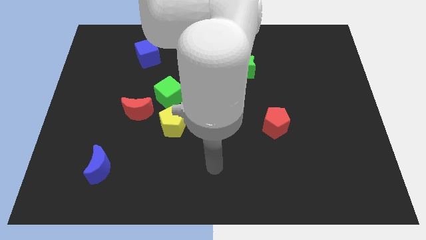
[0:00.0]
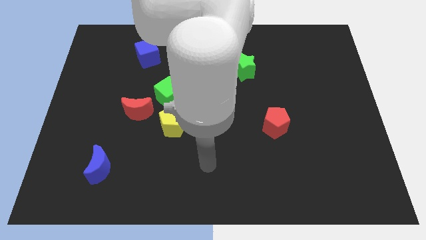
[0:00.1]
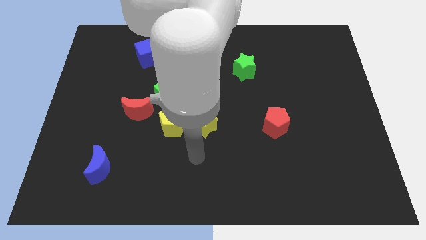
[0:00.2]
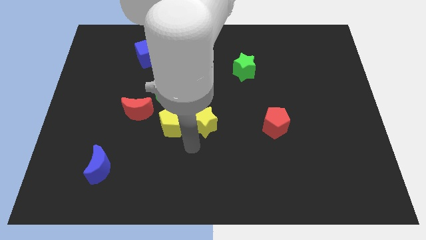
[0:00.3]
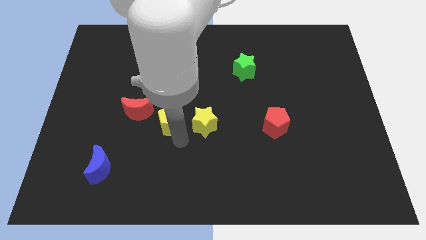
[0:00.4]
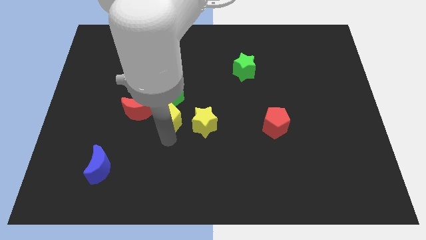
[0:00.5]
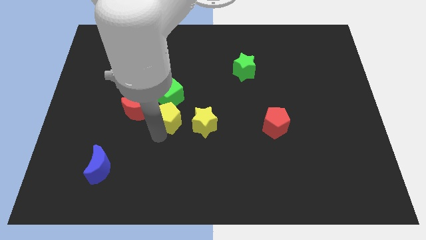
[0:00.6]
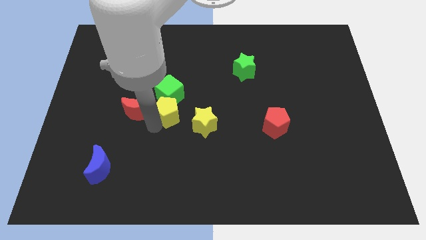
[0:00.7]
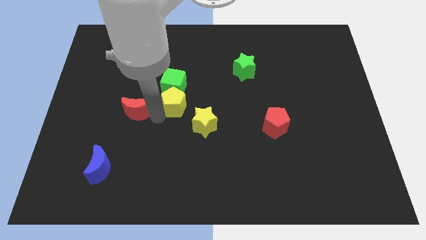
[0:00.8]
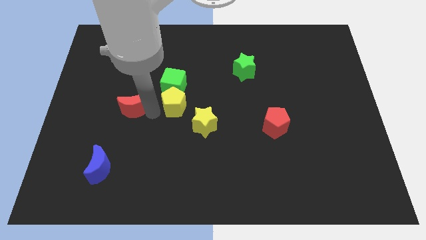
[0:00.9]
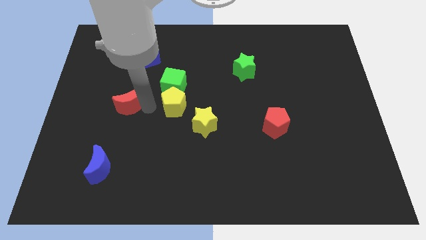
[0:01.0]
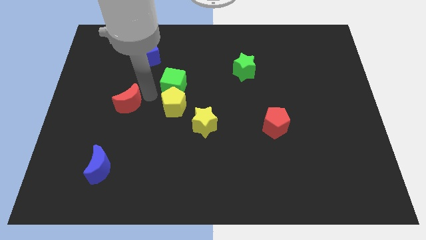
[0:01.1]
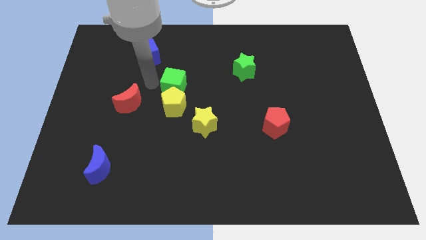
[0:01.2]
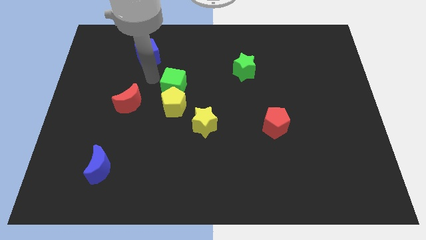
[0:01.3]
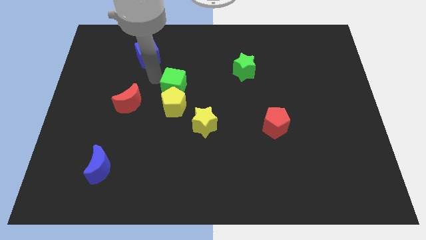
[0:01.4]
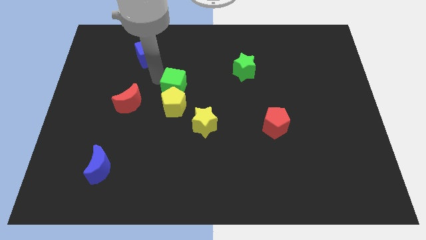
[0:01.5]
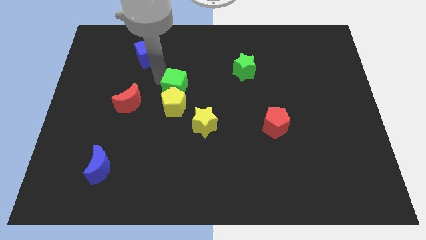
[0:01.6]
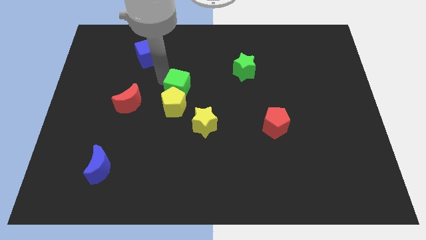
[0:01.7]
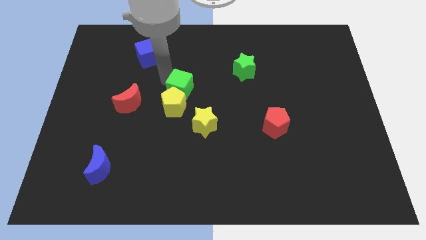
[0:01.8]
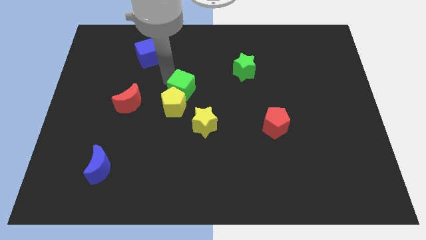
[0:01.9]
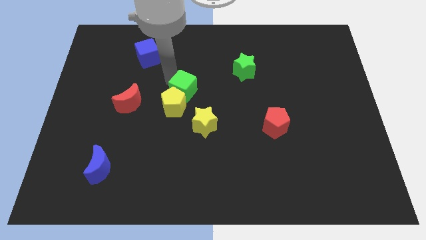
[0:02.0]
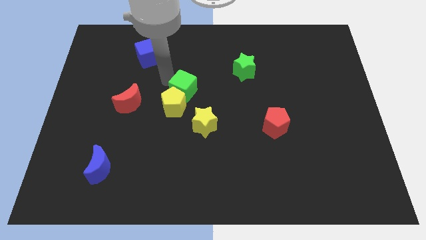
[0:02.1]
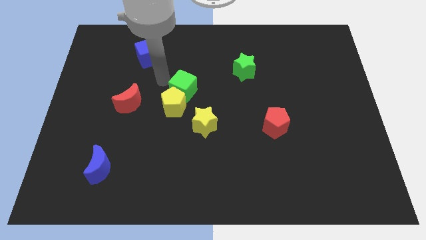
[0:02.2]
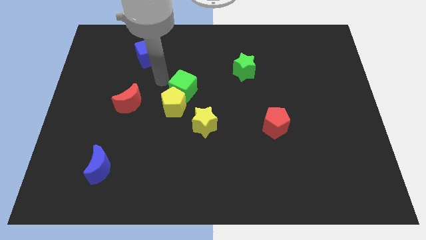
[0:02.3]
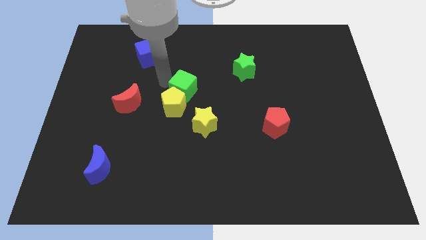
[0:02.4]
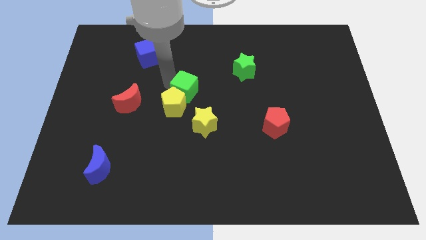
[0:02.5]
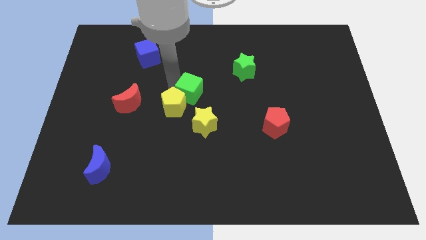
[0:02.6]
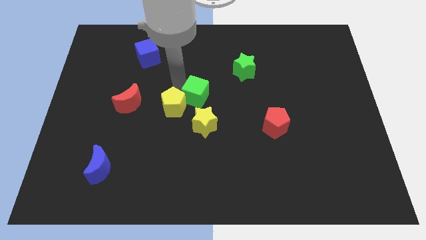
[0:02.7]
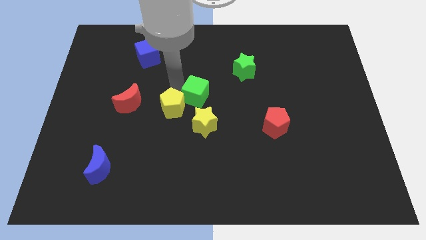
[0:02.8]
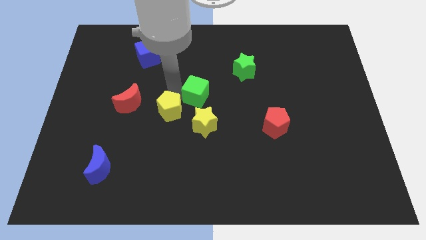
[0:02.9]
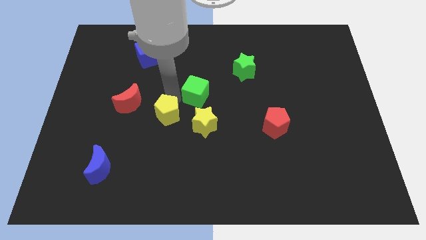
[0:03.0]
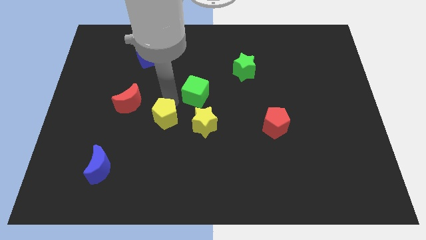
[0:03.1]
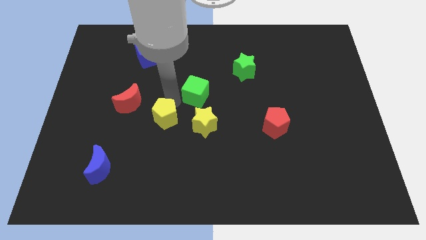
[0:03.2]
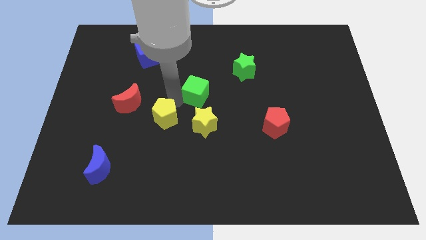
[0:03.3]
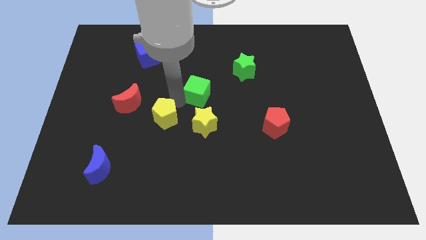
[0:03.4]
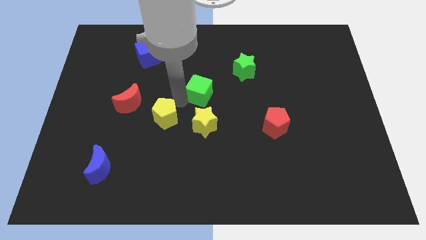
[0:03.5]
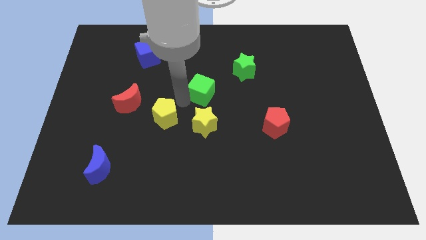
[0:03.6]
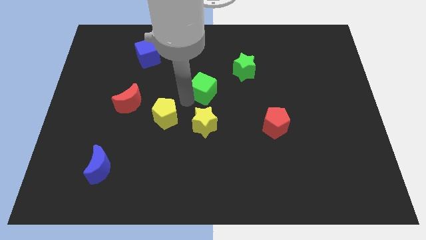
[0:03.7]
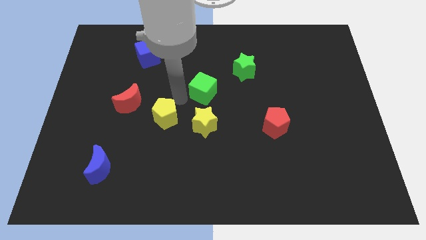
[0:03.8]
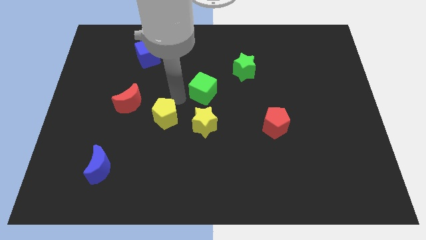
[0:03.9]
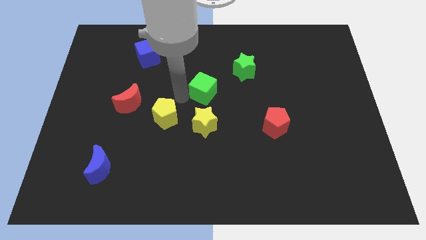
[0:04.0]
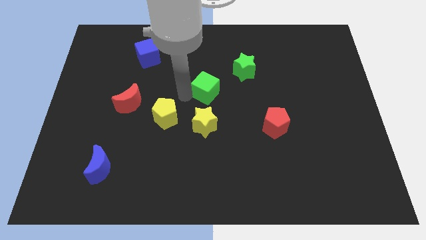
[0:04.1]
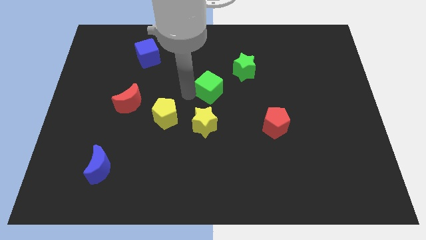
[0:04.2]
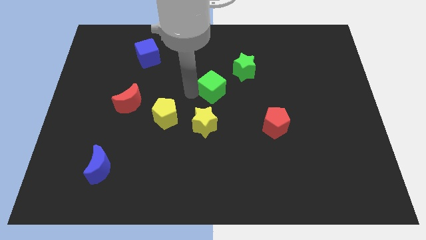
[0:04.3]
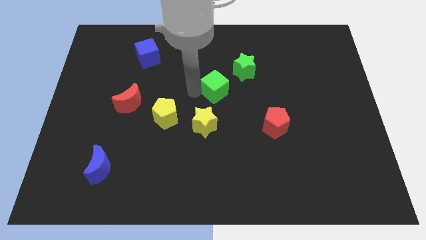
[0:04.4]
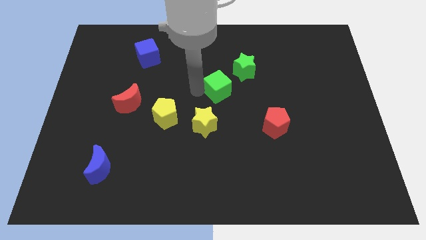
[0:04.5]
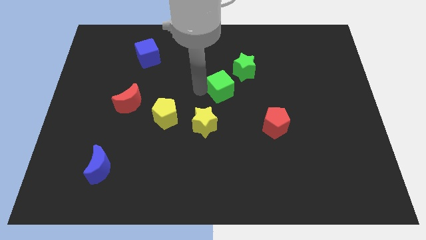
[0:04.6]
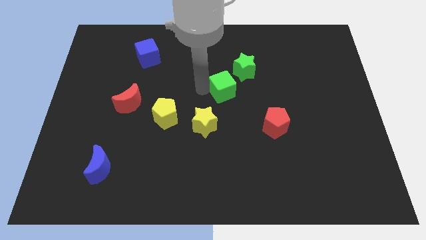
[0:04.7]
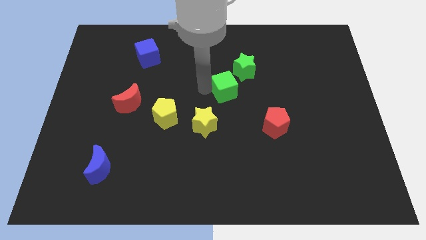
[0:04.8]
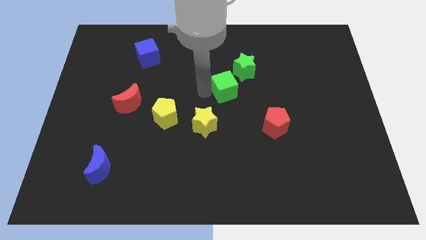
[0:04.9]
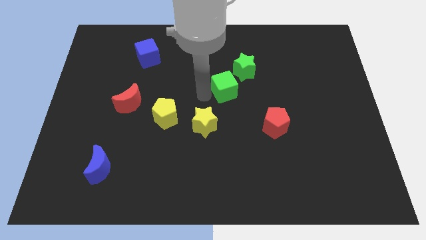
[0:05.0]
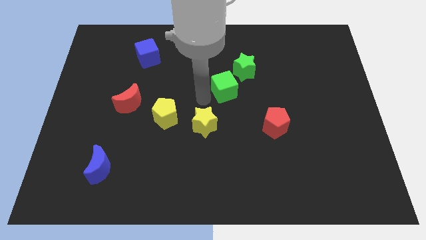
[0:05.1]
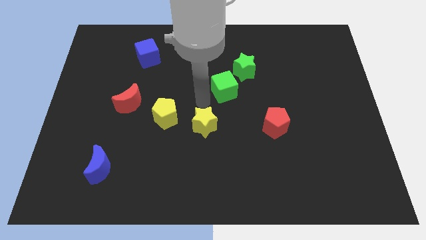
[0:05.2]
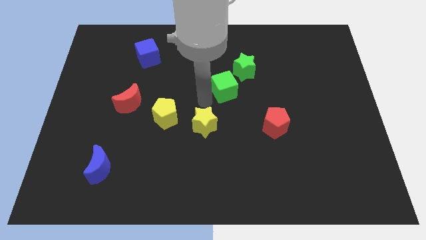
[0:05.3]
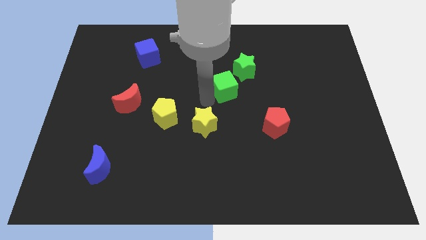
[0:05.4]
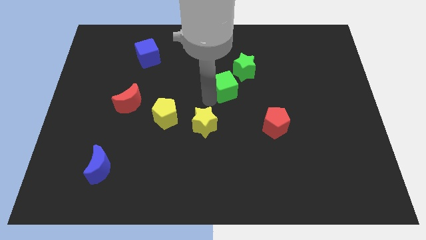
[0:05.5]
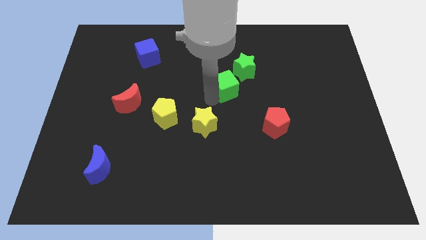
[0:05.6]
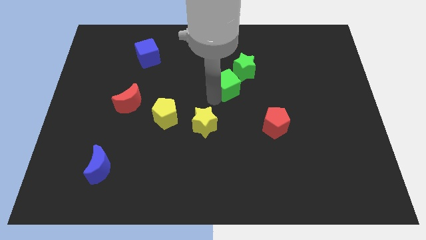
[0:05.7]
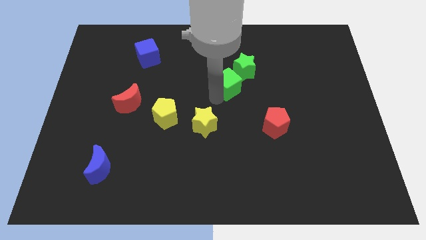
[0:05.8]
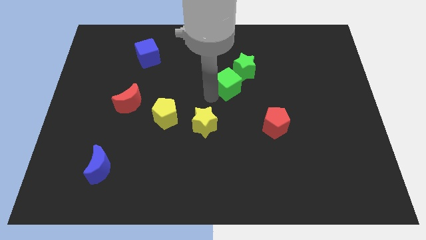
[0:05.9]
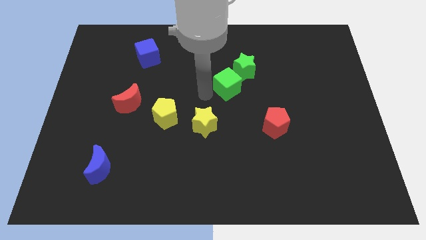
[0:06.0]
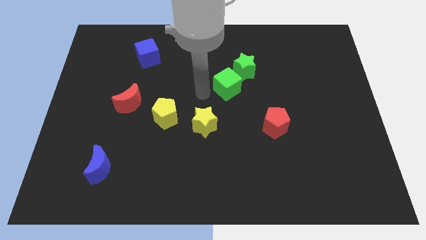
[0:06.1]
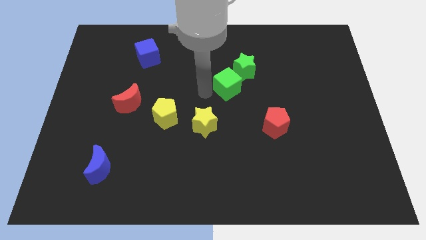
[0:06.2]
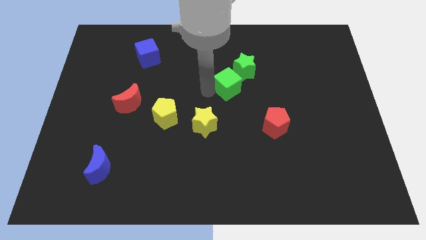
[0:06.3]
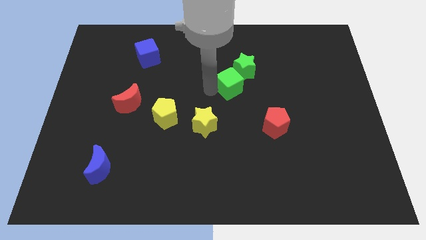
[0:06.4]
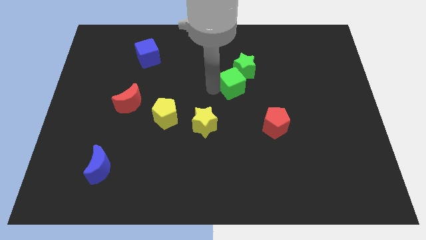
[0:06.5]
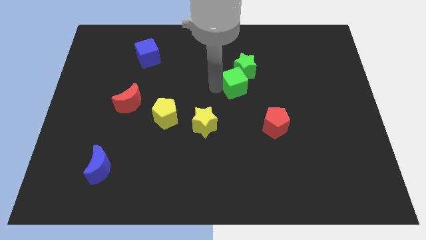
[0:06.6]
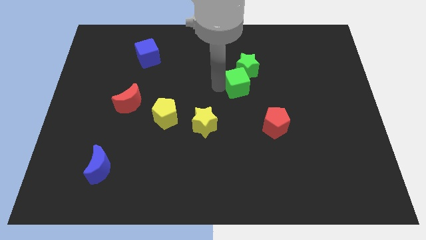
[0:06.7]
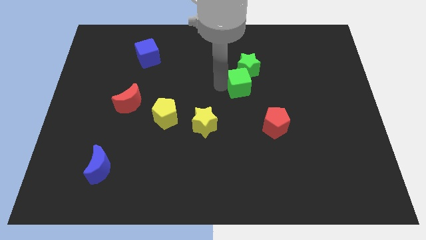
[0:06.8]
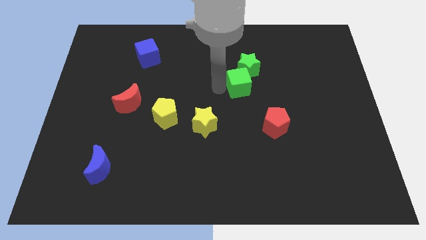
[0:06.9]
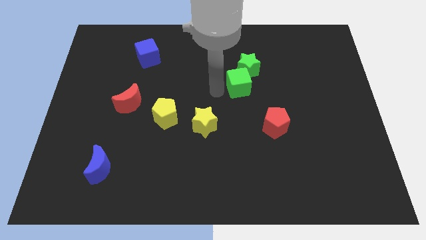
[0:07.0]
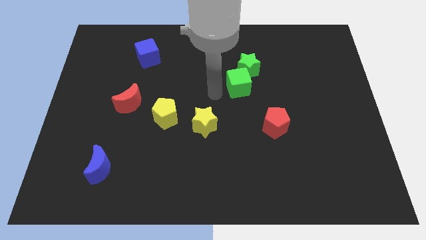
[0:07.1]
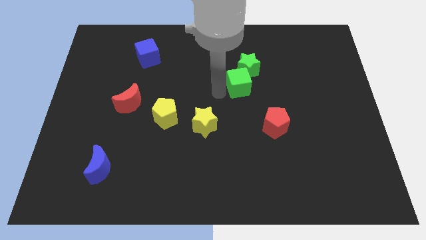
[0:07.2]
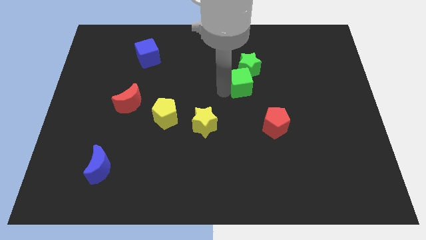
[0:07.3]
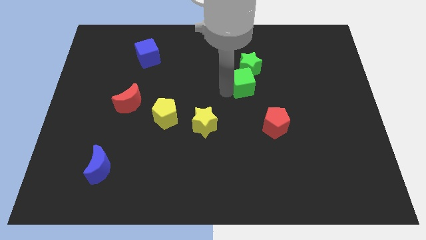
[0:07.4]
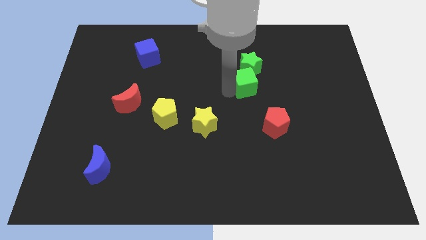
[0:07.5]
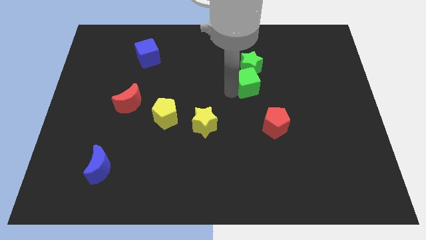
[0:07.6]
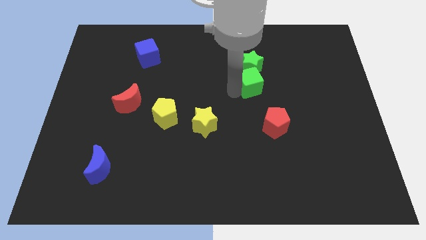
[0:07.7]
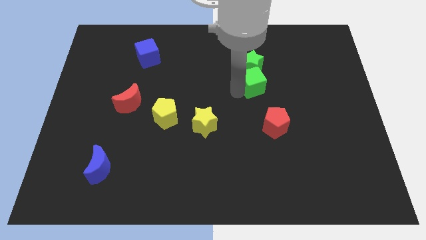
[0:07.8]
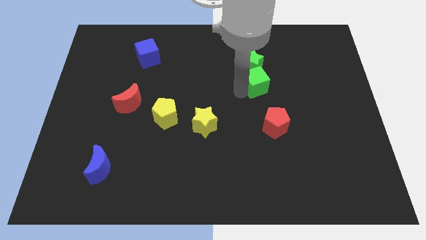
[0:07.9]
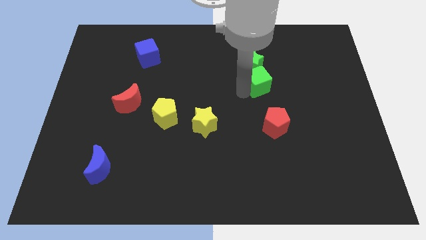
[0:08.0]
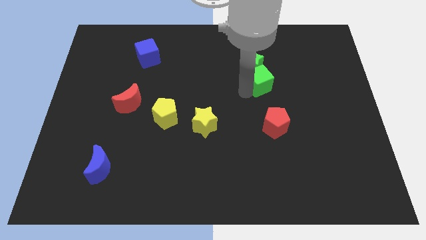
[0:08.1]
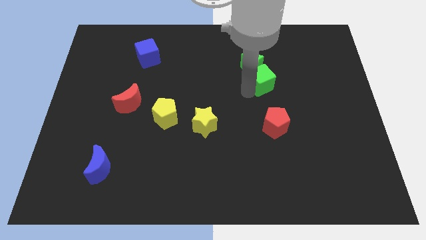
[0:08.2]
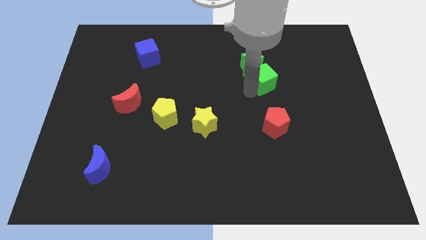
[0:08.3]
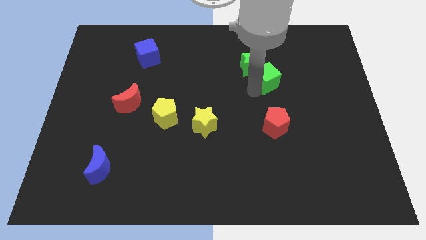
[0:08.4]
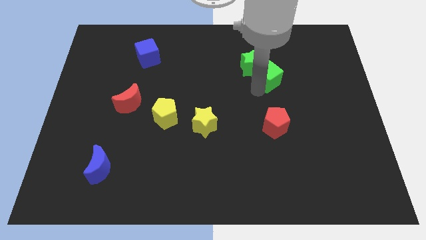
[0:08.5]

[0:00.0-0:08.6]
slide the green cube right of the green star
